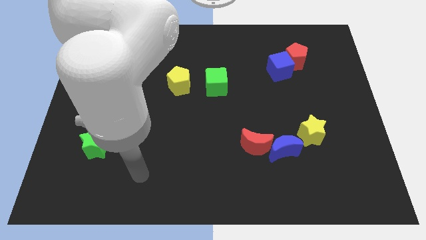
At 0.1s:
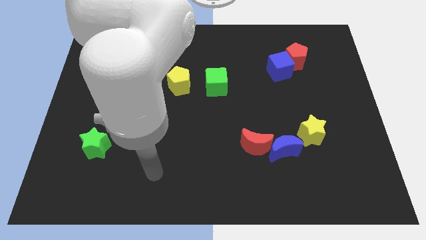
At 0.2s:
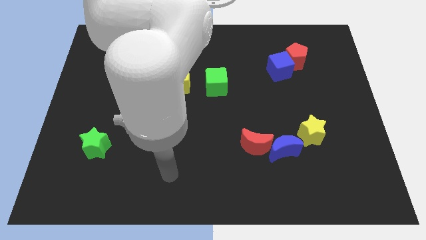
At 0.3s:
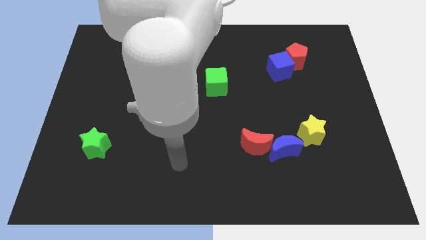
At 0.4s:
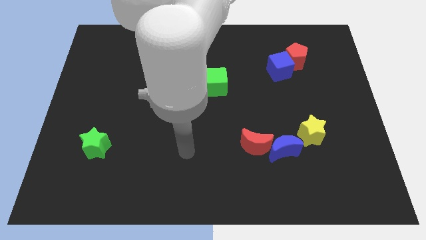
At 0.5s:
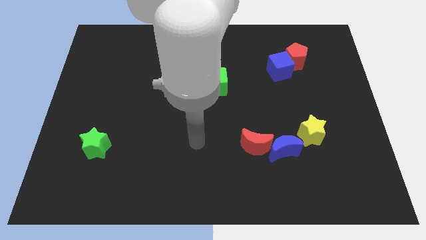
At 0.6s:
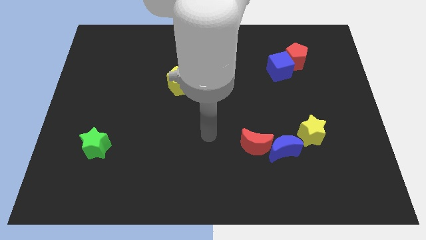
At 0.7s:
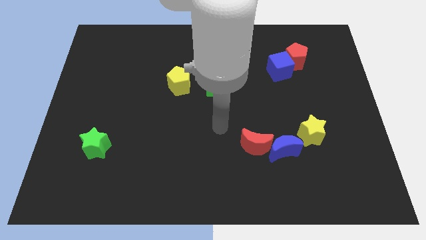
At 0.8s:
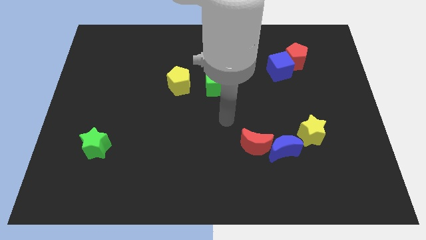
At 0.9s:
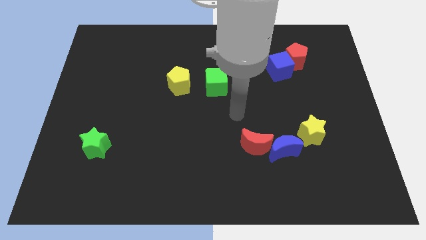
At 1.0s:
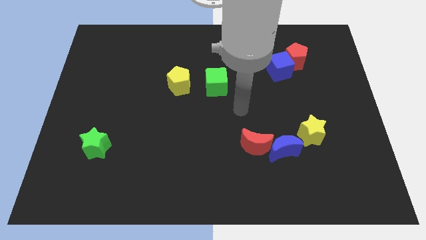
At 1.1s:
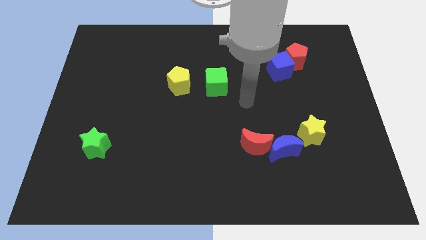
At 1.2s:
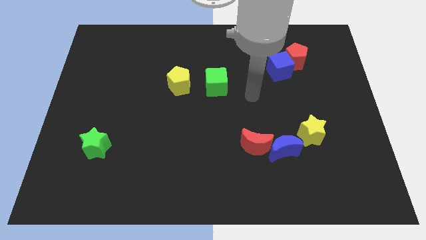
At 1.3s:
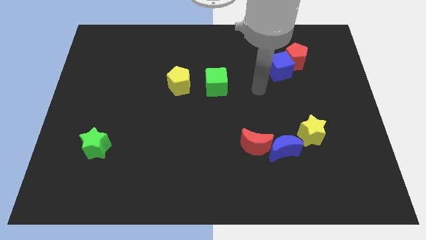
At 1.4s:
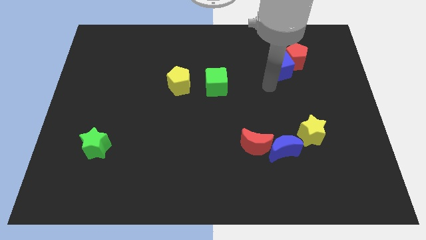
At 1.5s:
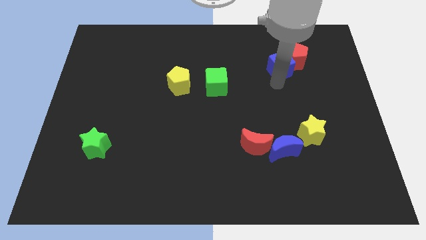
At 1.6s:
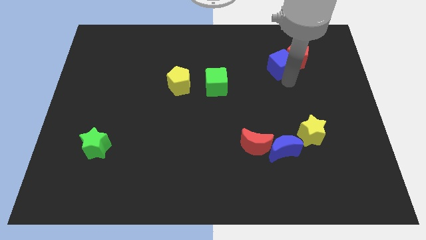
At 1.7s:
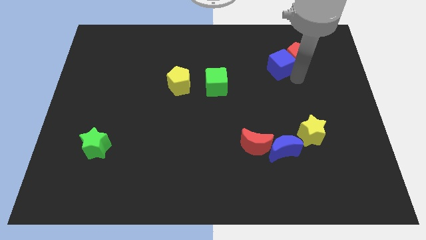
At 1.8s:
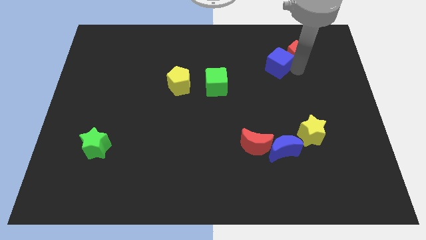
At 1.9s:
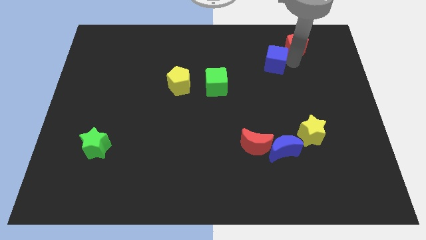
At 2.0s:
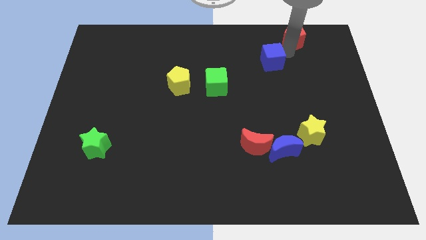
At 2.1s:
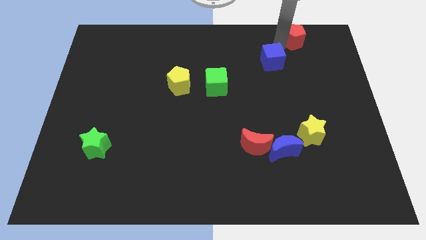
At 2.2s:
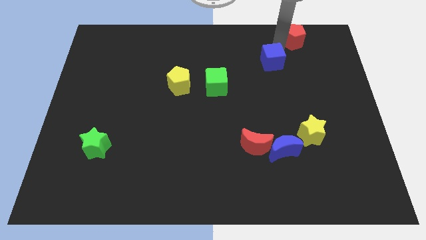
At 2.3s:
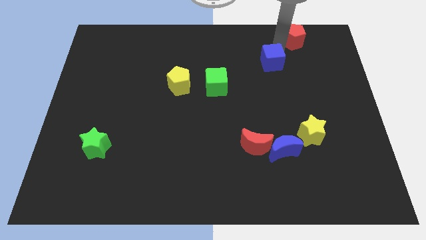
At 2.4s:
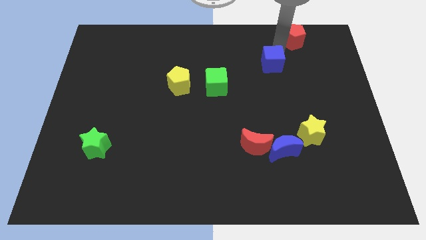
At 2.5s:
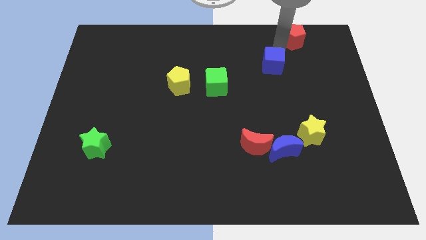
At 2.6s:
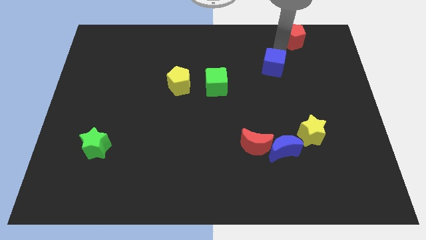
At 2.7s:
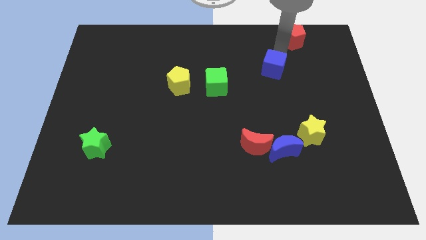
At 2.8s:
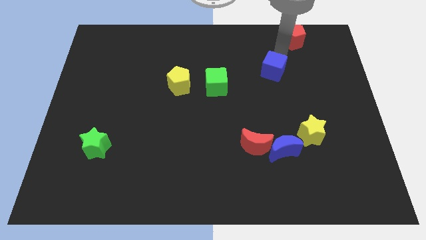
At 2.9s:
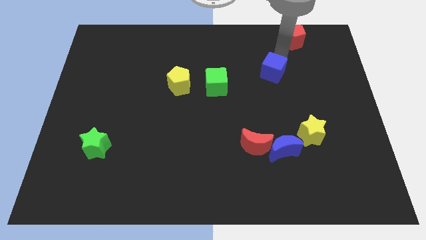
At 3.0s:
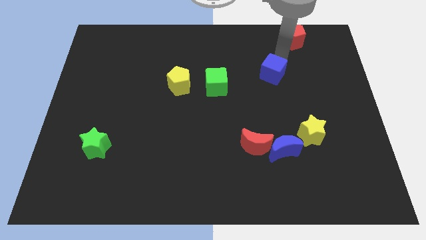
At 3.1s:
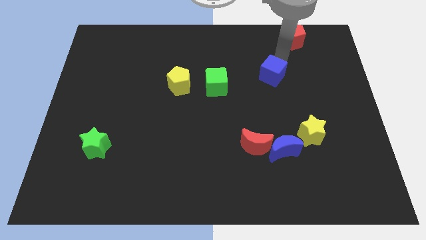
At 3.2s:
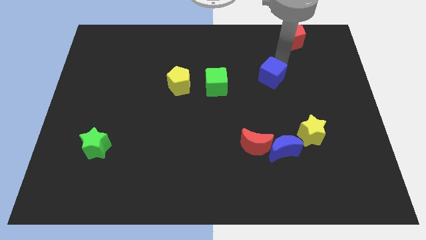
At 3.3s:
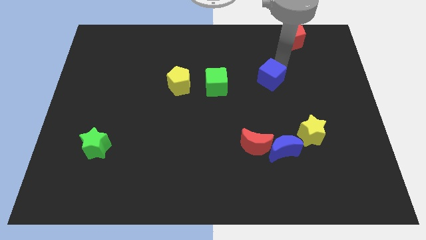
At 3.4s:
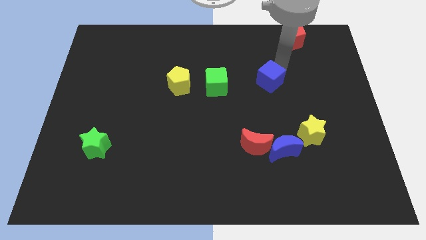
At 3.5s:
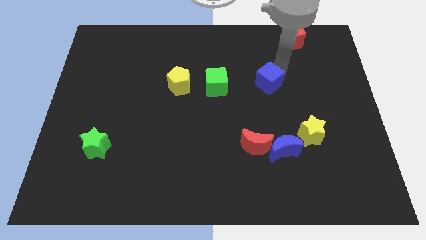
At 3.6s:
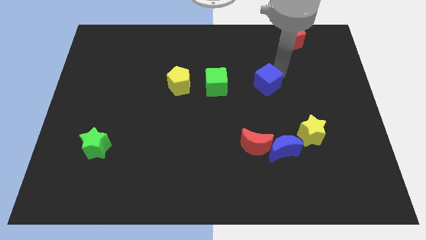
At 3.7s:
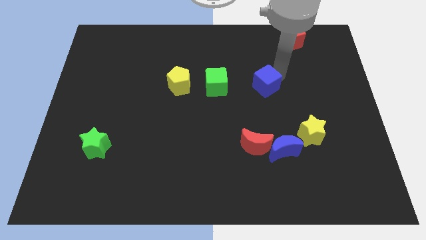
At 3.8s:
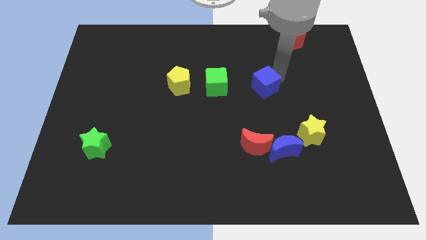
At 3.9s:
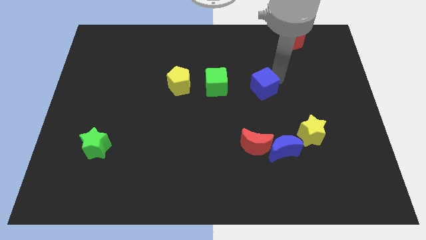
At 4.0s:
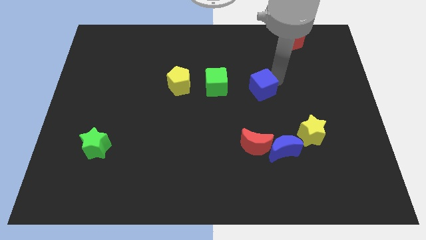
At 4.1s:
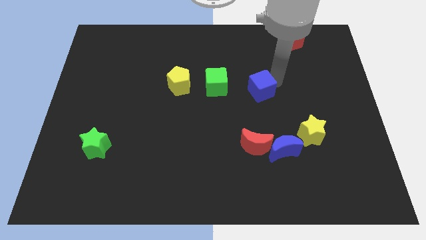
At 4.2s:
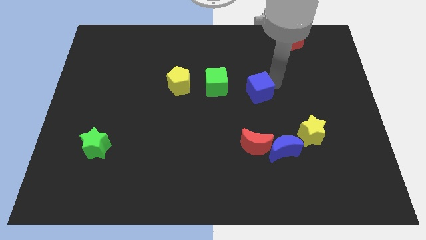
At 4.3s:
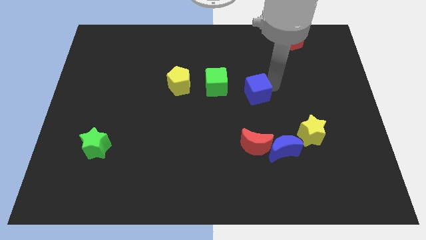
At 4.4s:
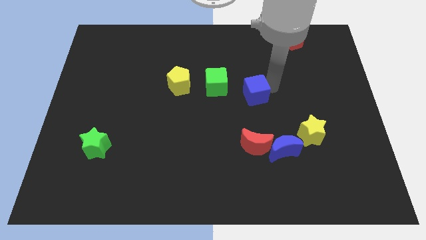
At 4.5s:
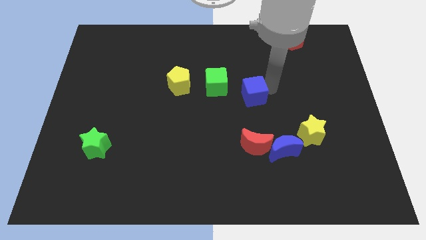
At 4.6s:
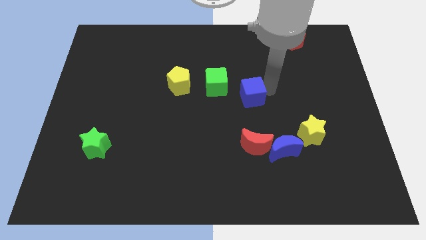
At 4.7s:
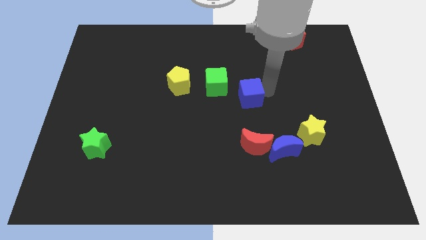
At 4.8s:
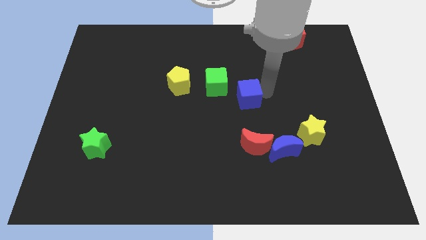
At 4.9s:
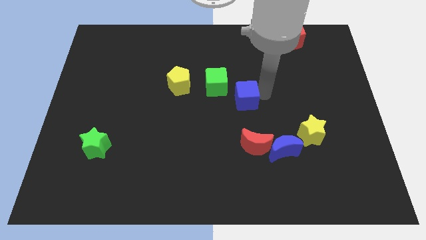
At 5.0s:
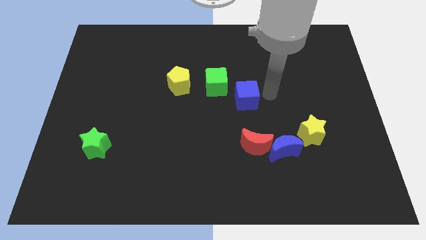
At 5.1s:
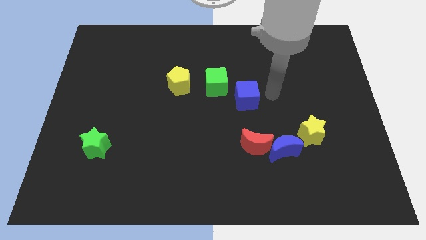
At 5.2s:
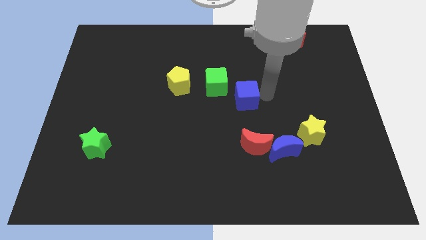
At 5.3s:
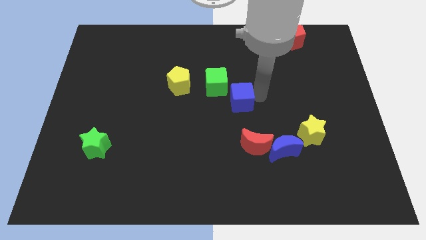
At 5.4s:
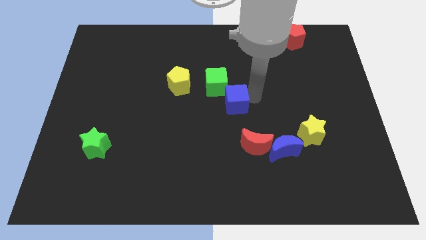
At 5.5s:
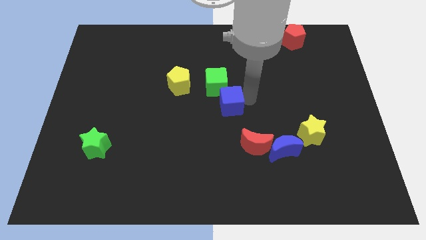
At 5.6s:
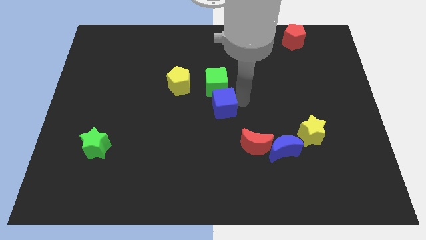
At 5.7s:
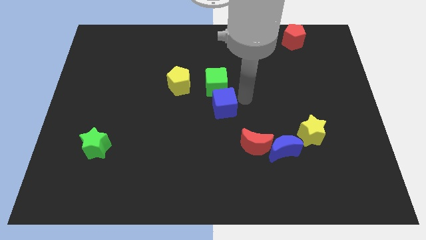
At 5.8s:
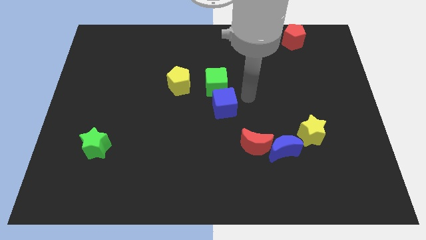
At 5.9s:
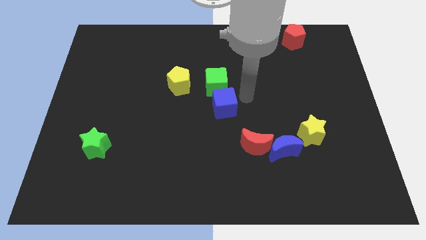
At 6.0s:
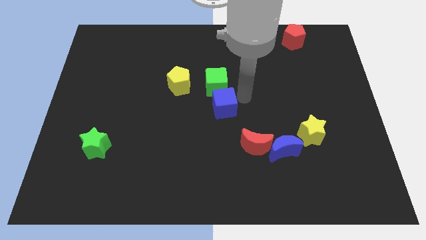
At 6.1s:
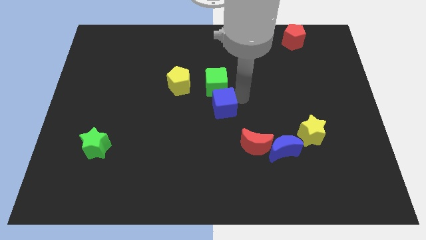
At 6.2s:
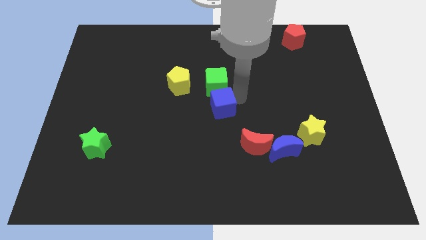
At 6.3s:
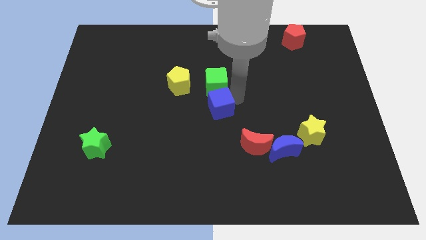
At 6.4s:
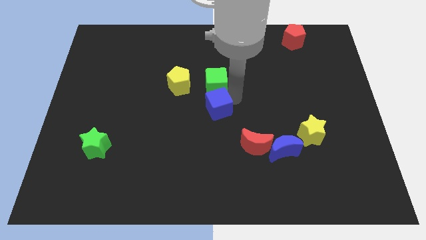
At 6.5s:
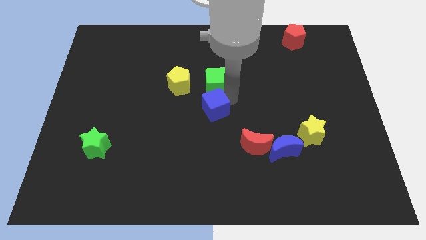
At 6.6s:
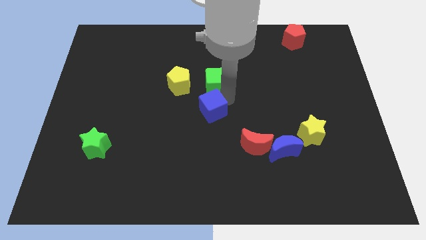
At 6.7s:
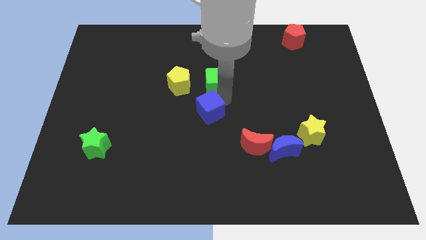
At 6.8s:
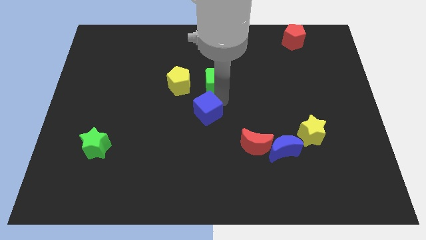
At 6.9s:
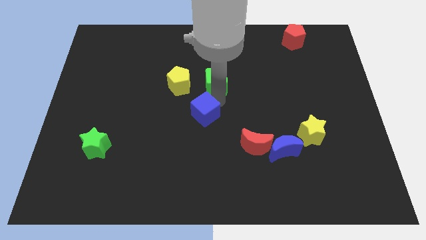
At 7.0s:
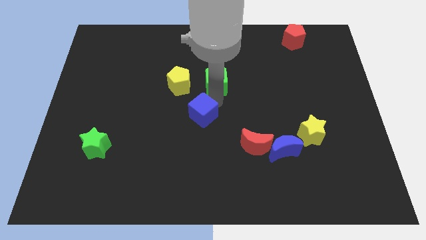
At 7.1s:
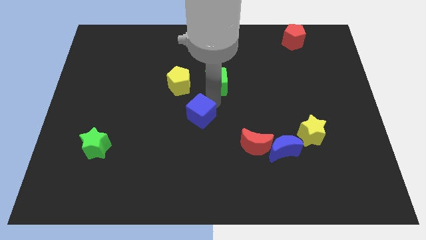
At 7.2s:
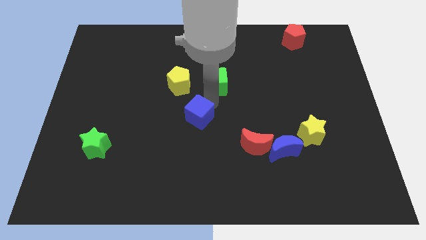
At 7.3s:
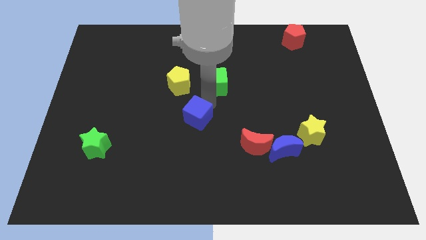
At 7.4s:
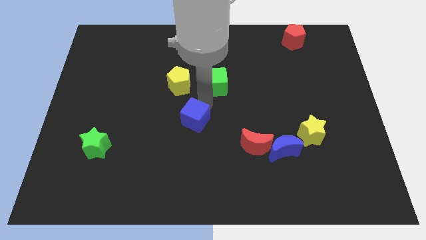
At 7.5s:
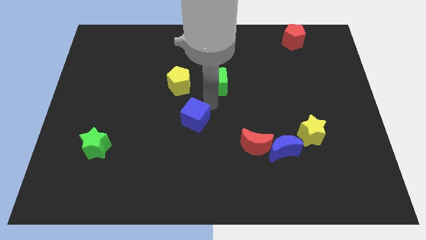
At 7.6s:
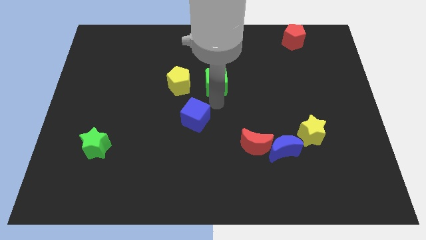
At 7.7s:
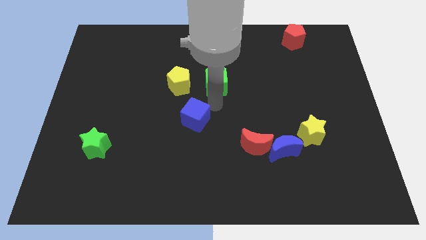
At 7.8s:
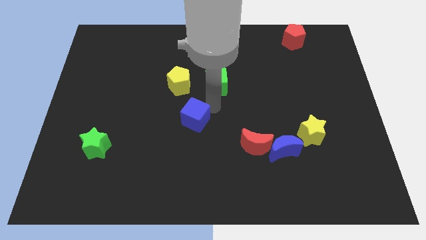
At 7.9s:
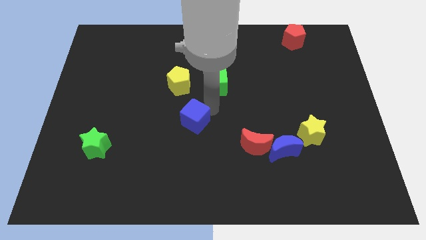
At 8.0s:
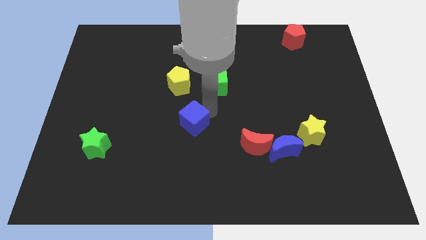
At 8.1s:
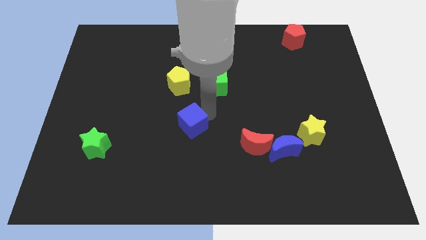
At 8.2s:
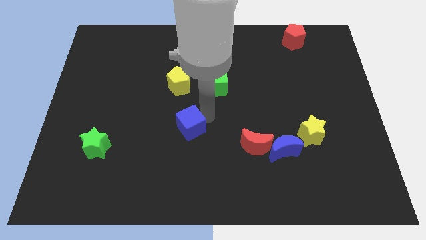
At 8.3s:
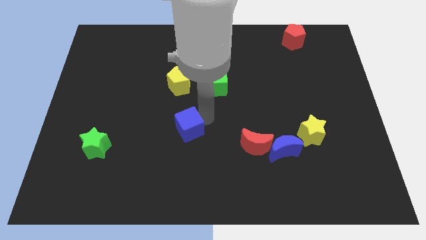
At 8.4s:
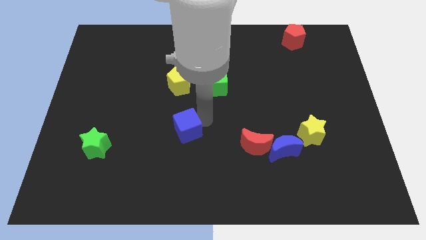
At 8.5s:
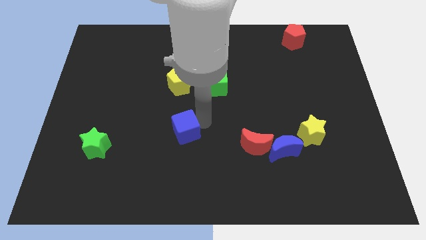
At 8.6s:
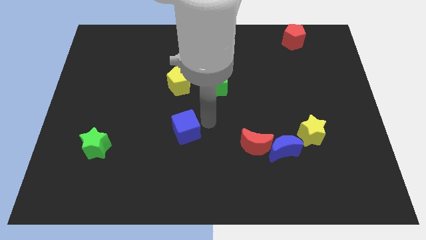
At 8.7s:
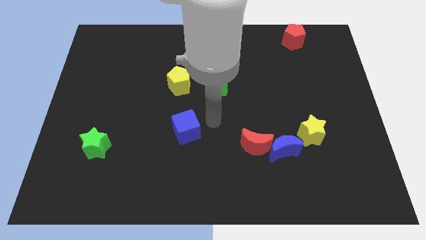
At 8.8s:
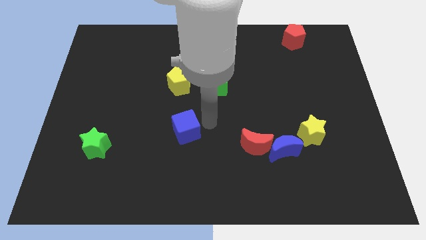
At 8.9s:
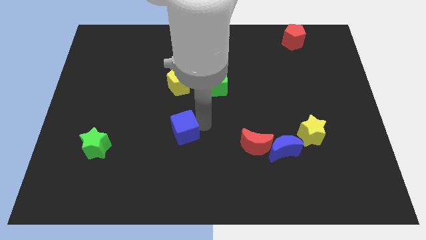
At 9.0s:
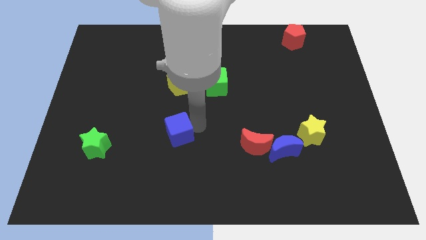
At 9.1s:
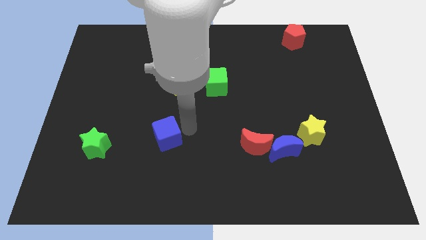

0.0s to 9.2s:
push the blue cube just right of the green star
